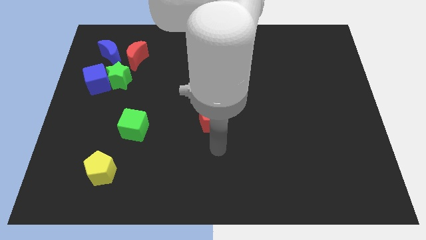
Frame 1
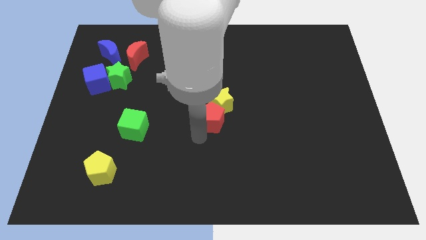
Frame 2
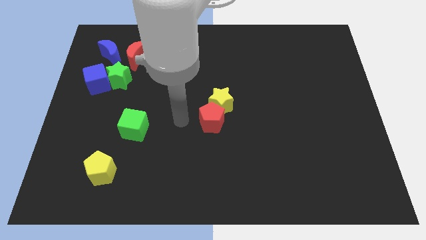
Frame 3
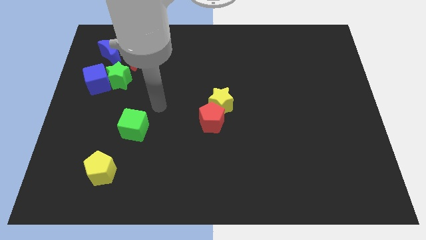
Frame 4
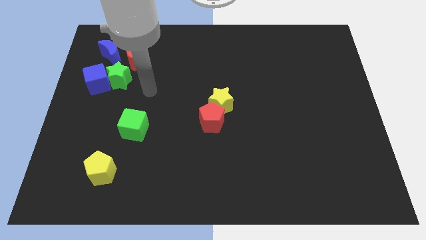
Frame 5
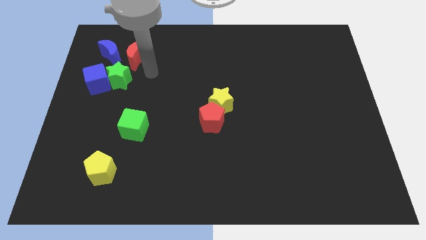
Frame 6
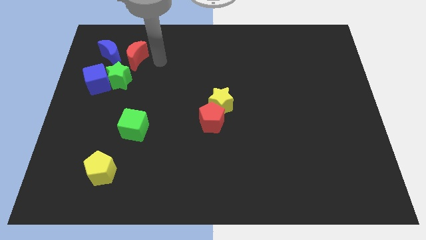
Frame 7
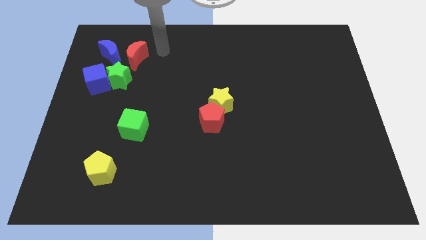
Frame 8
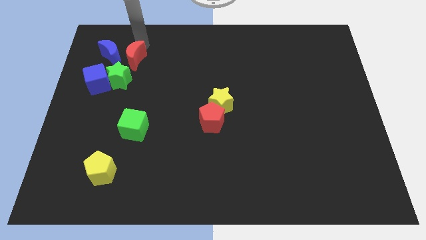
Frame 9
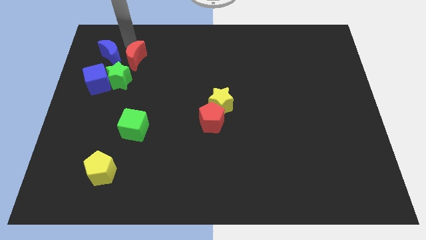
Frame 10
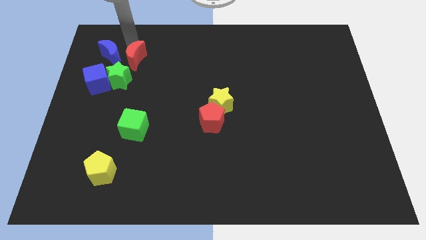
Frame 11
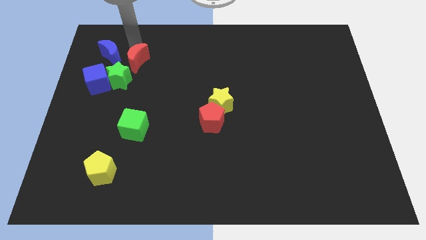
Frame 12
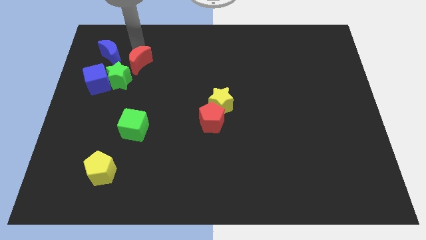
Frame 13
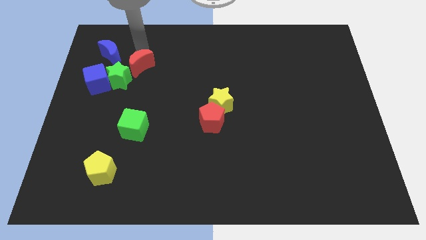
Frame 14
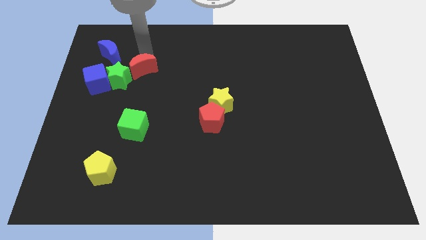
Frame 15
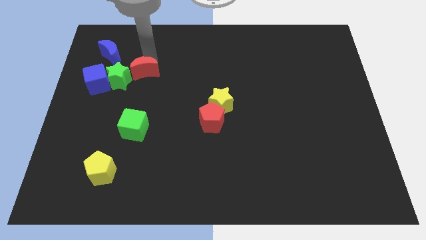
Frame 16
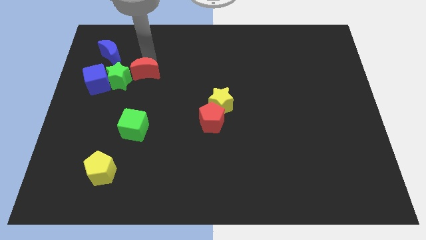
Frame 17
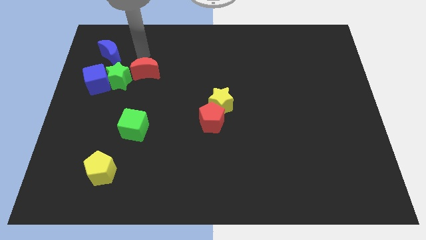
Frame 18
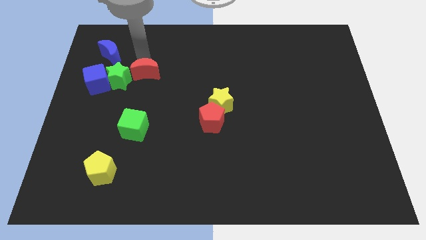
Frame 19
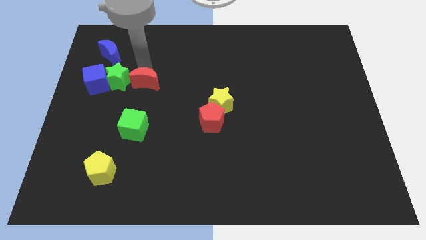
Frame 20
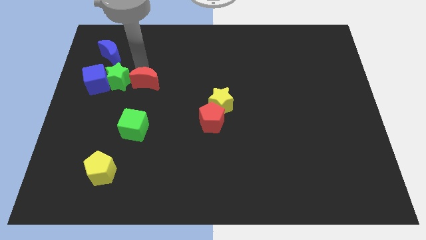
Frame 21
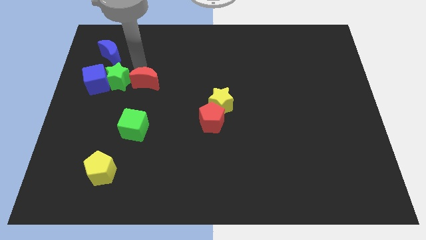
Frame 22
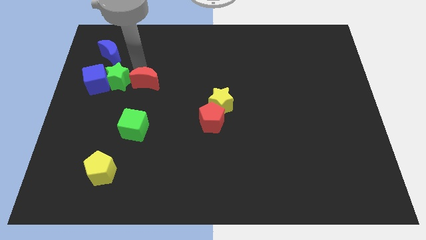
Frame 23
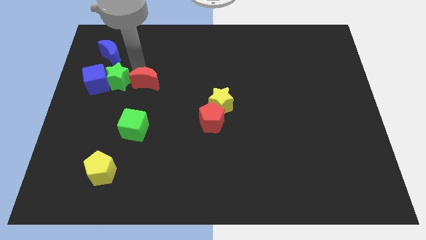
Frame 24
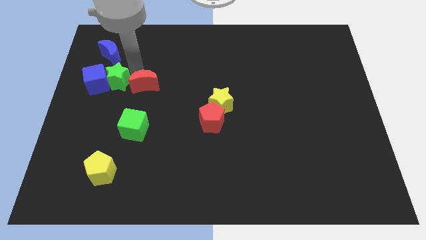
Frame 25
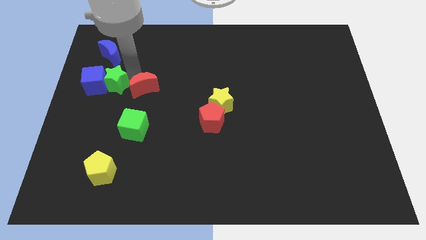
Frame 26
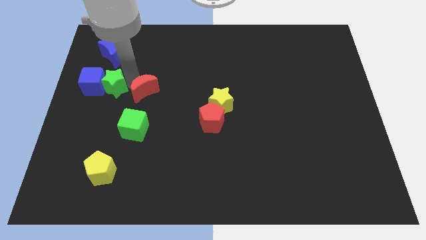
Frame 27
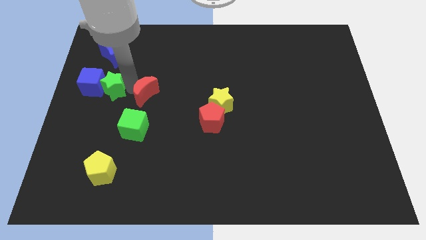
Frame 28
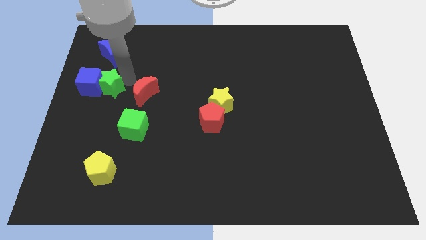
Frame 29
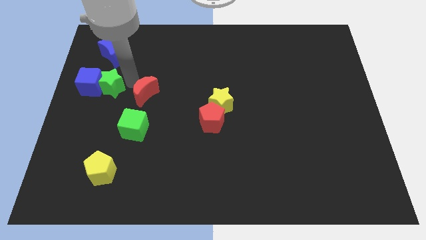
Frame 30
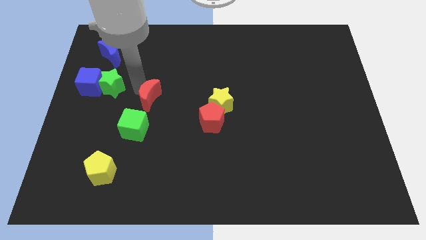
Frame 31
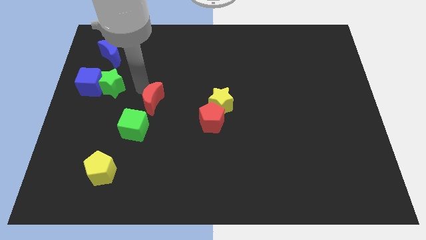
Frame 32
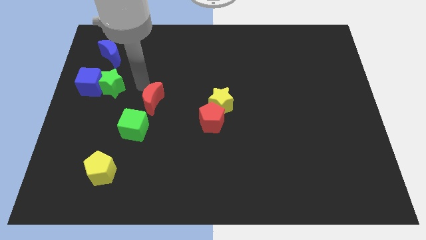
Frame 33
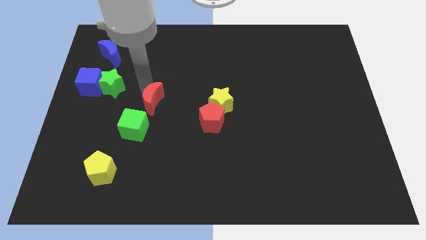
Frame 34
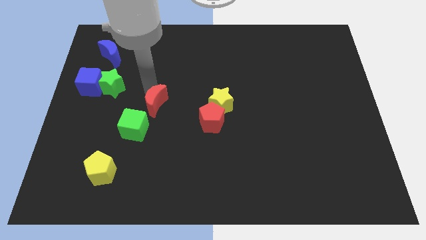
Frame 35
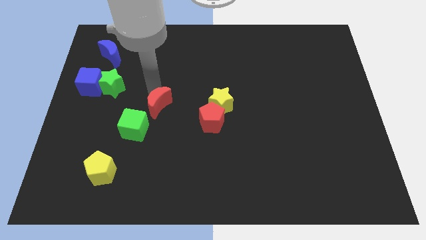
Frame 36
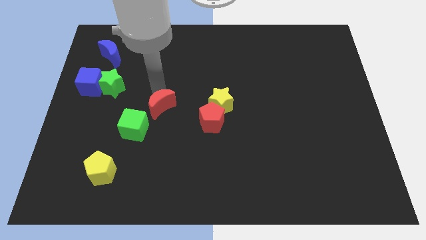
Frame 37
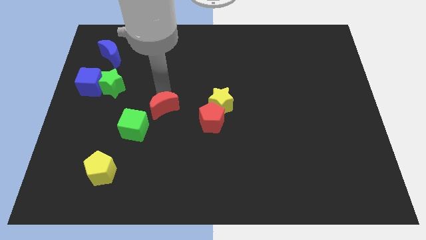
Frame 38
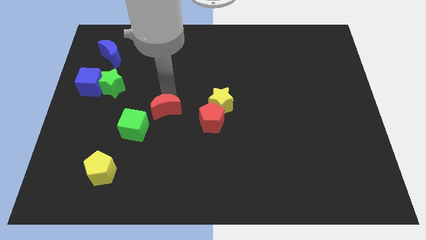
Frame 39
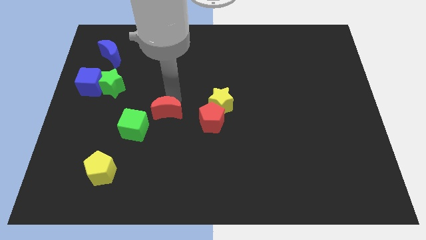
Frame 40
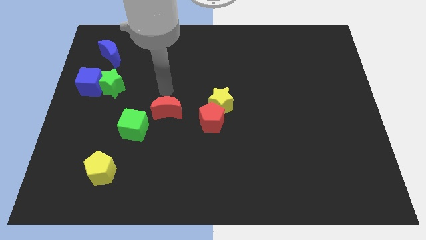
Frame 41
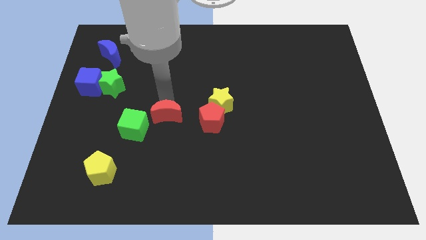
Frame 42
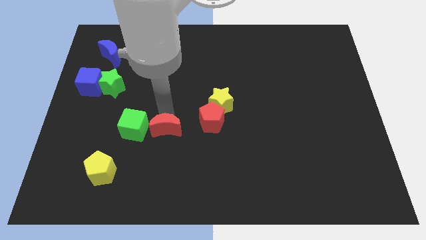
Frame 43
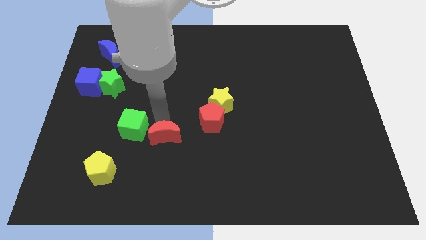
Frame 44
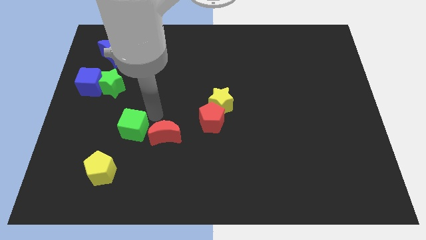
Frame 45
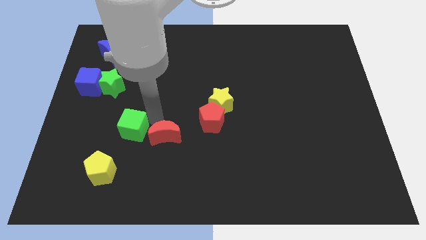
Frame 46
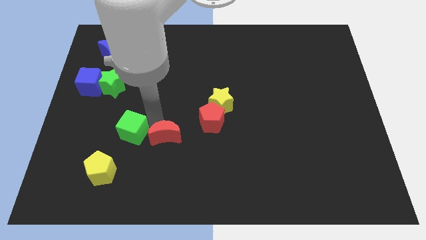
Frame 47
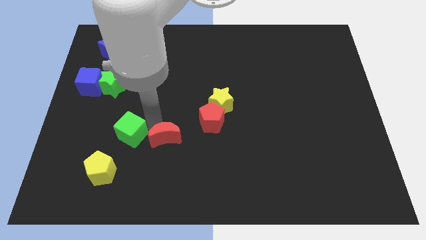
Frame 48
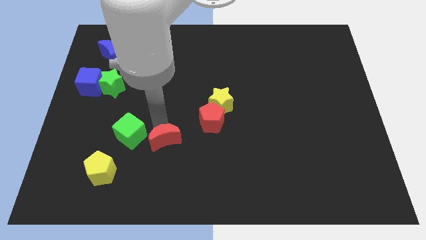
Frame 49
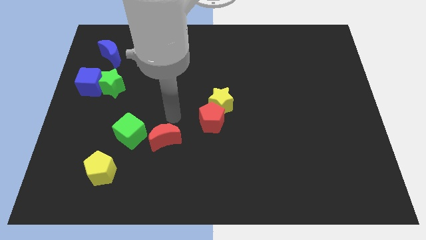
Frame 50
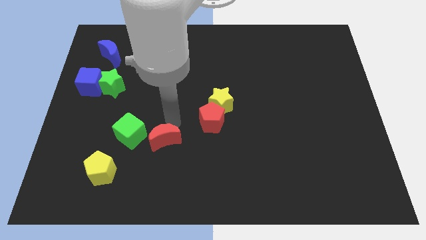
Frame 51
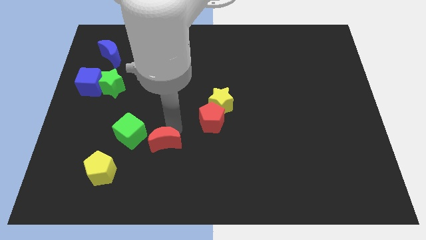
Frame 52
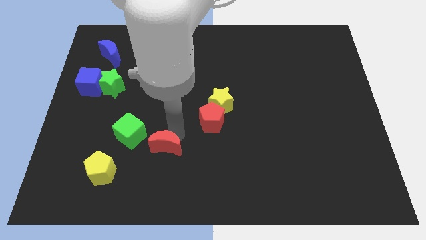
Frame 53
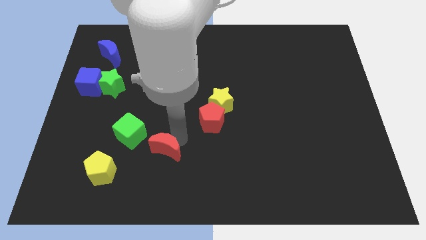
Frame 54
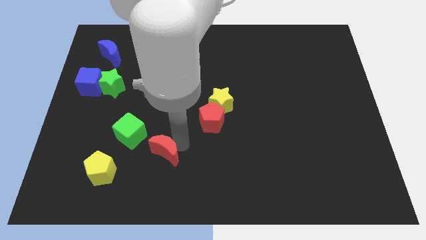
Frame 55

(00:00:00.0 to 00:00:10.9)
put the red moon to the right side of the yellow pentagon

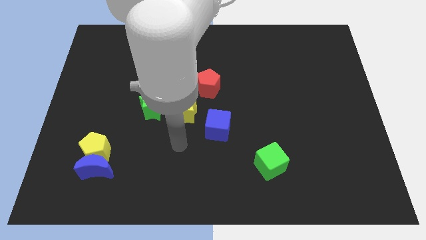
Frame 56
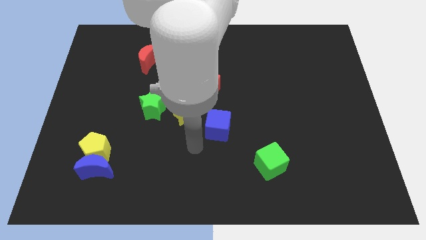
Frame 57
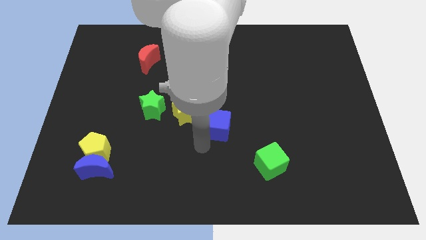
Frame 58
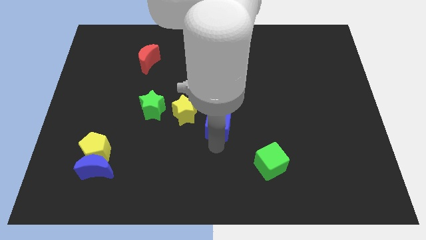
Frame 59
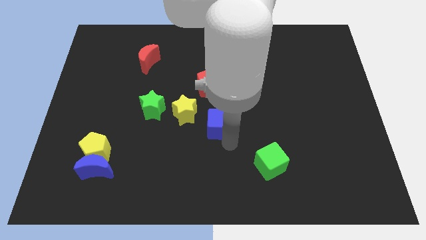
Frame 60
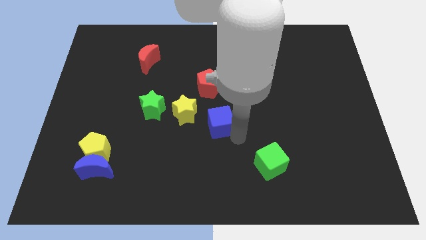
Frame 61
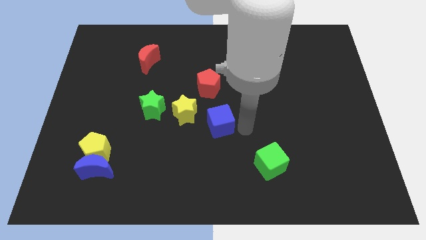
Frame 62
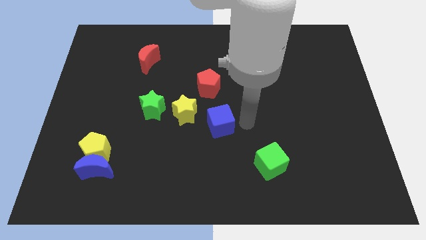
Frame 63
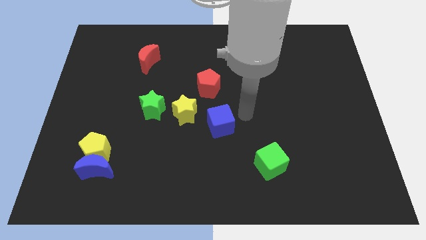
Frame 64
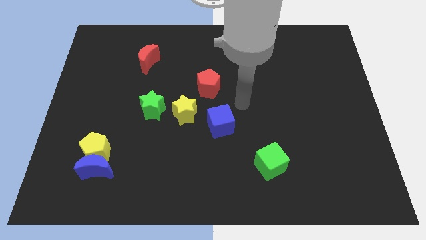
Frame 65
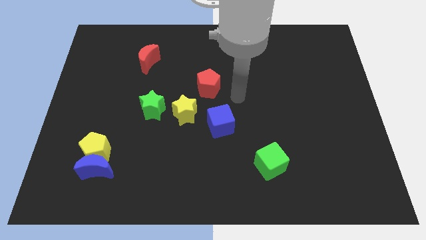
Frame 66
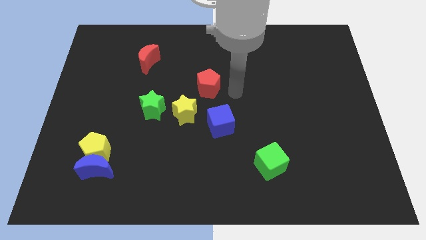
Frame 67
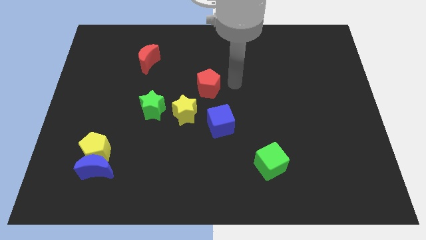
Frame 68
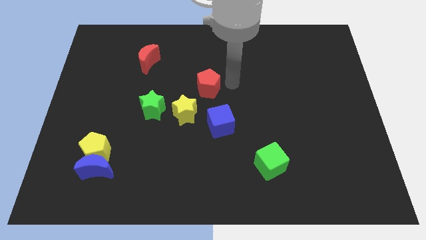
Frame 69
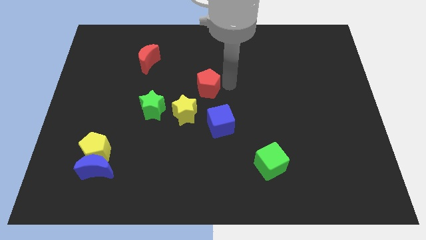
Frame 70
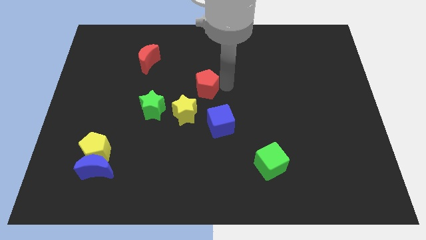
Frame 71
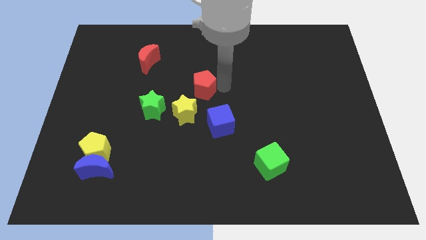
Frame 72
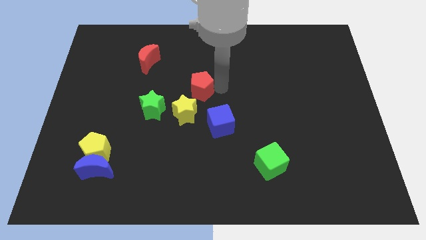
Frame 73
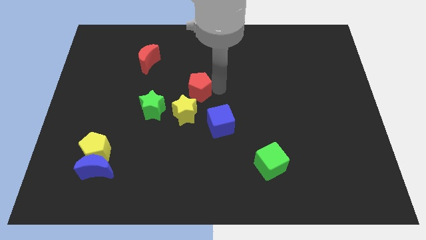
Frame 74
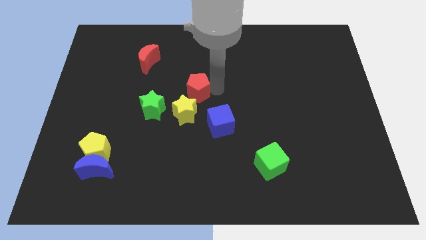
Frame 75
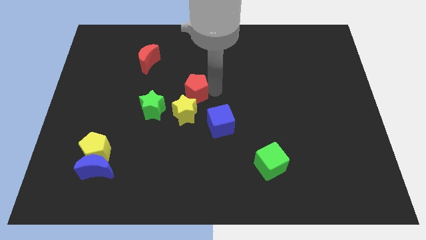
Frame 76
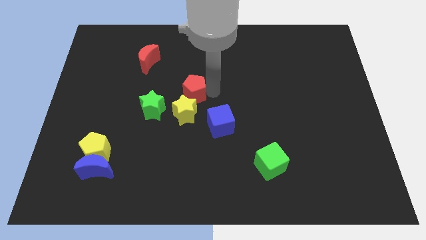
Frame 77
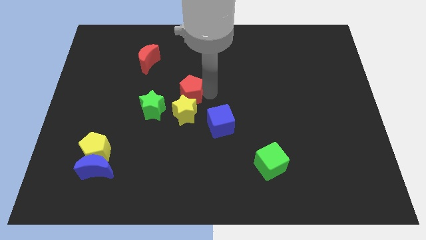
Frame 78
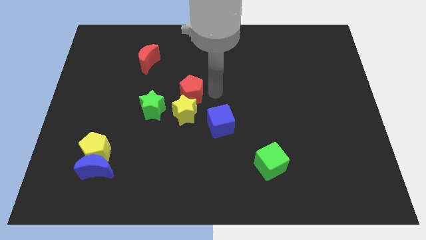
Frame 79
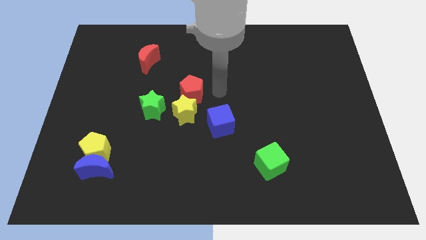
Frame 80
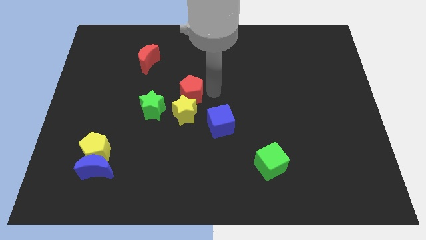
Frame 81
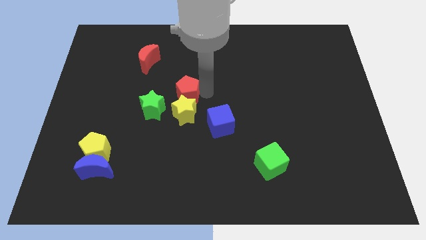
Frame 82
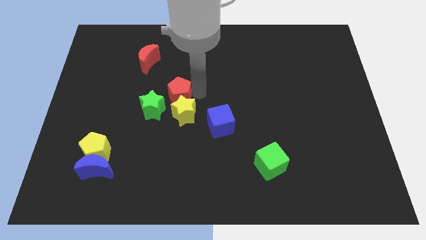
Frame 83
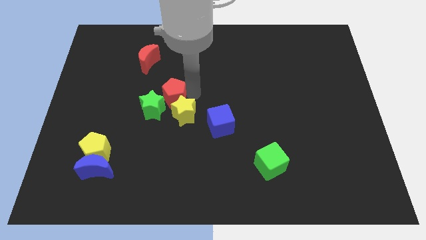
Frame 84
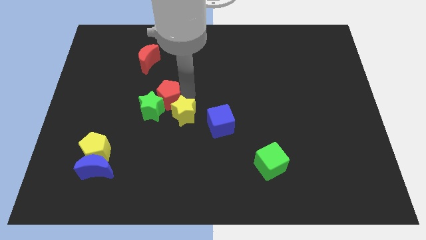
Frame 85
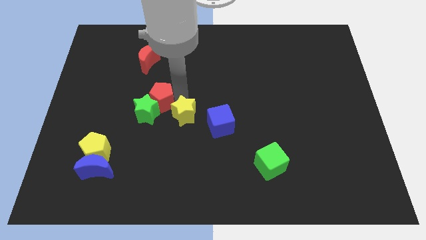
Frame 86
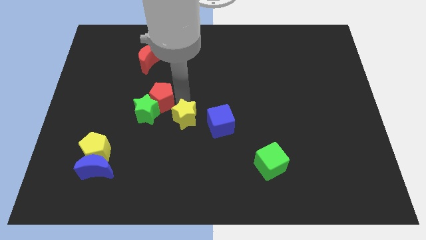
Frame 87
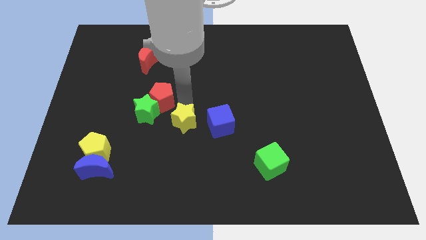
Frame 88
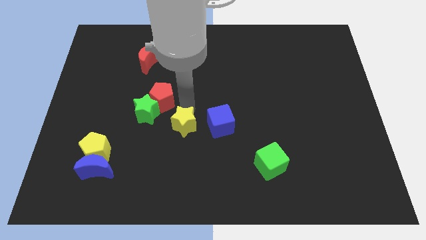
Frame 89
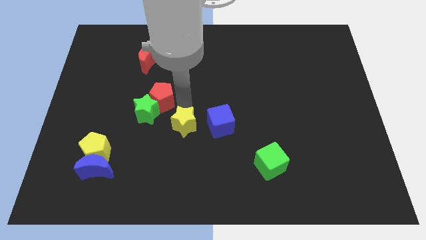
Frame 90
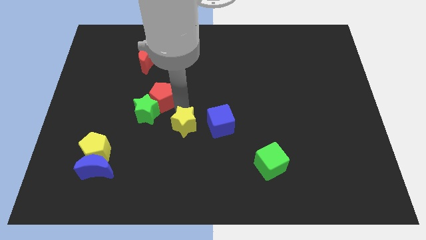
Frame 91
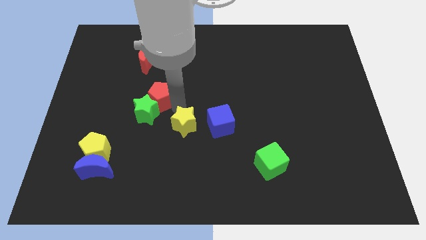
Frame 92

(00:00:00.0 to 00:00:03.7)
push the red pentagon to the bottom side of the red moon
